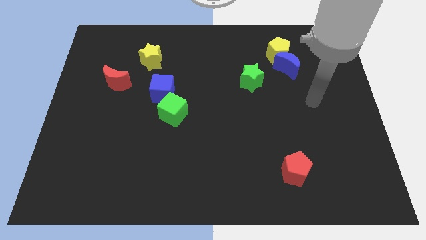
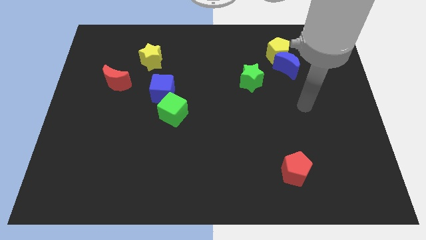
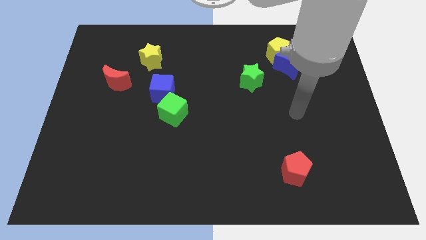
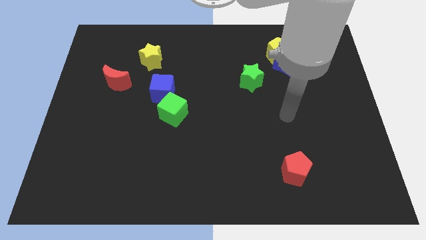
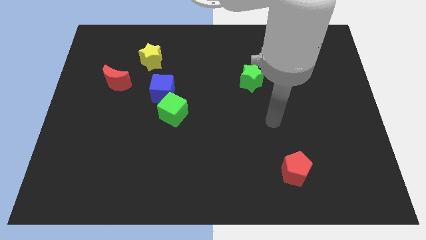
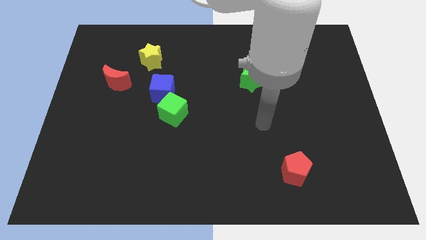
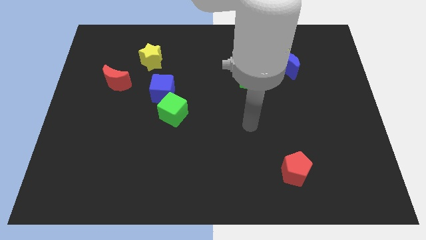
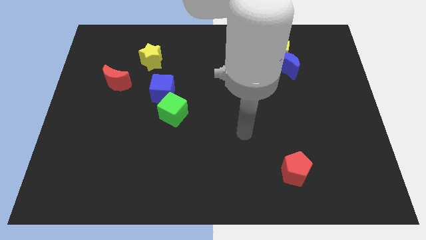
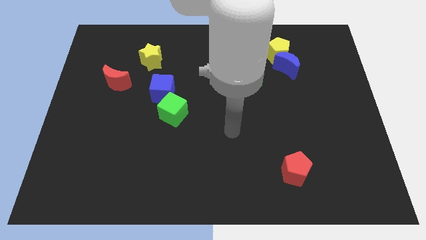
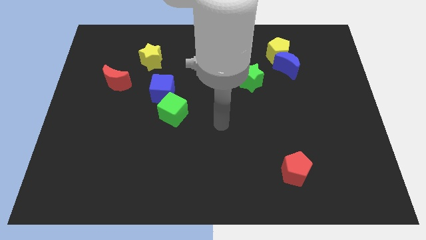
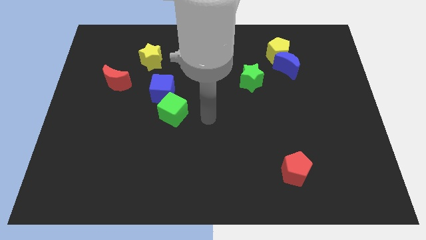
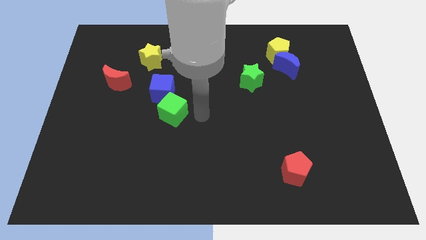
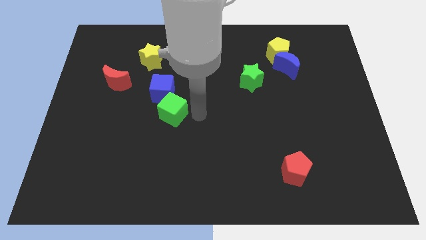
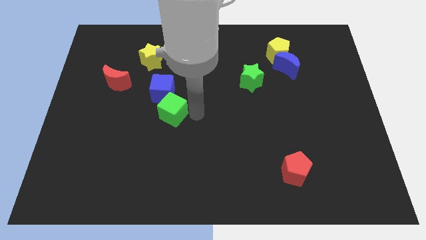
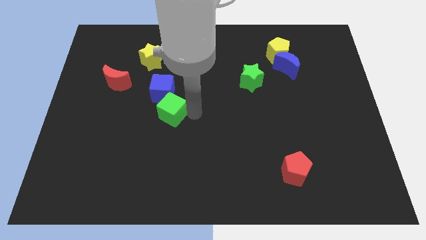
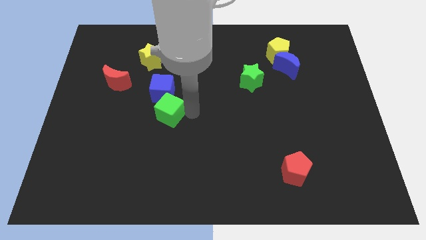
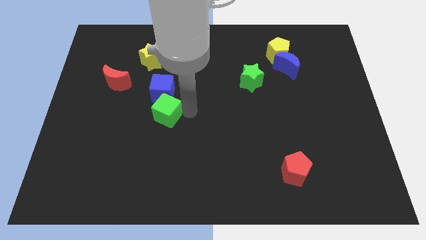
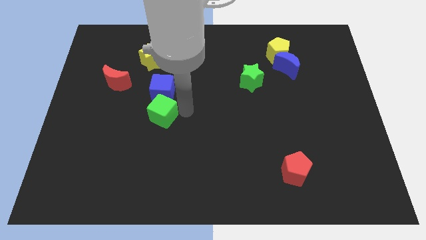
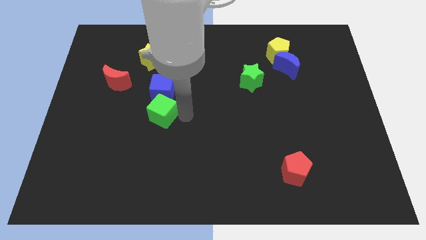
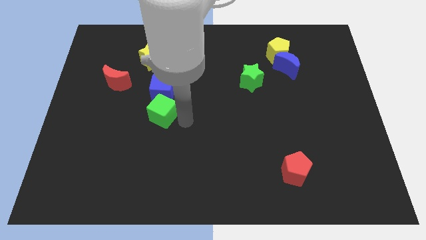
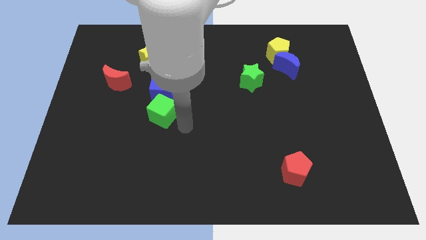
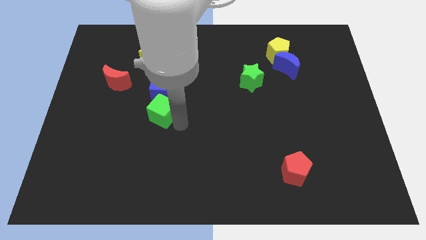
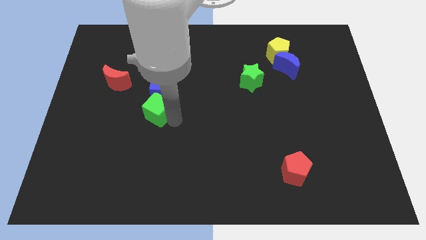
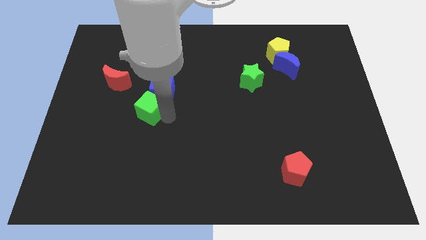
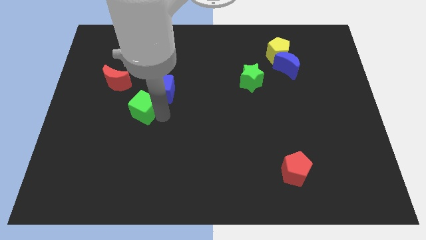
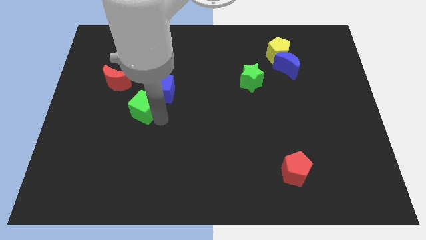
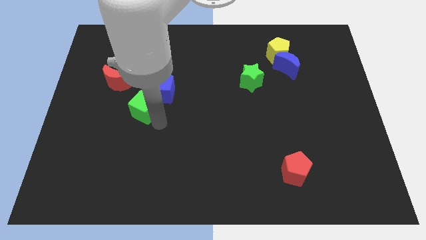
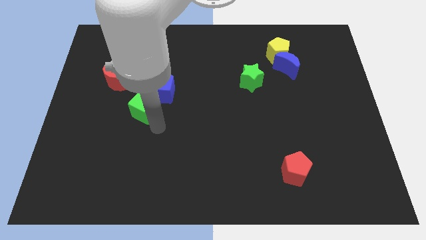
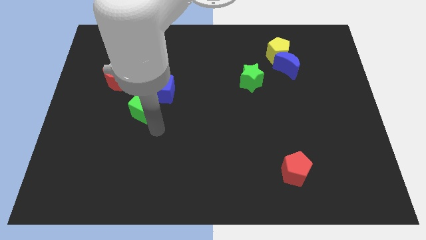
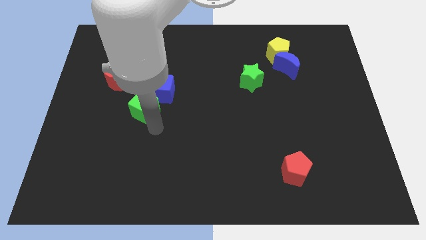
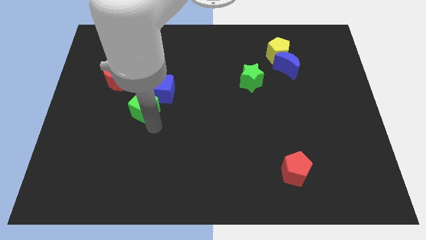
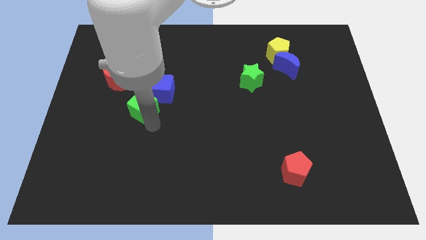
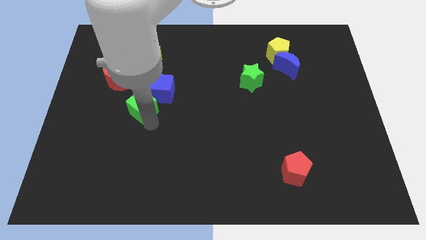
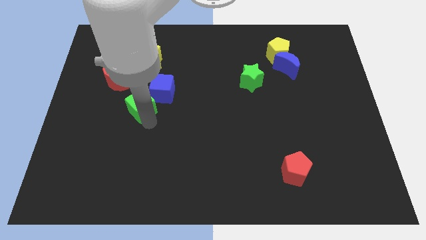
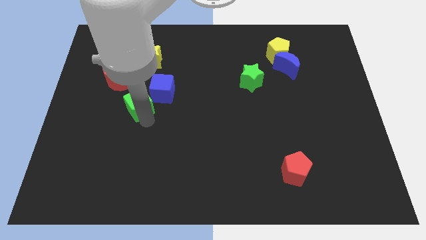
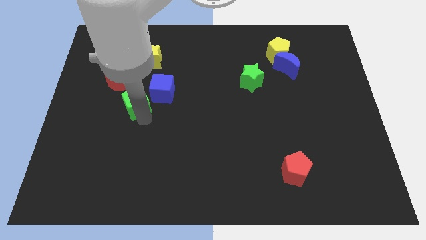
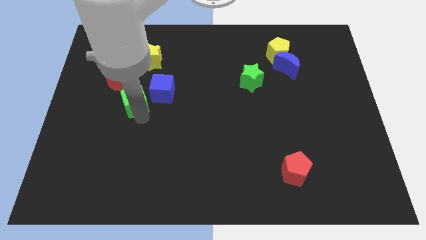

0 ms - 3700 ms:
push the green cube upwards and then left a bit

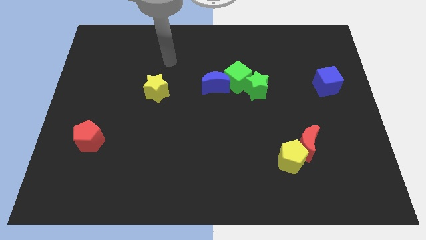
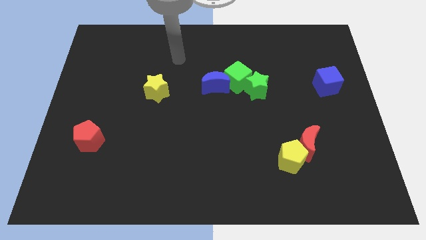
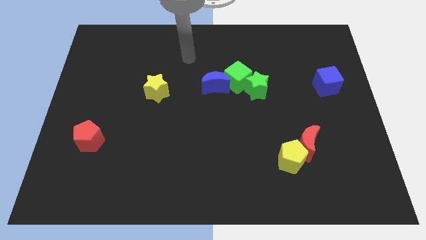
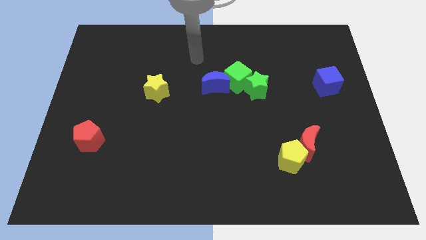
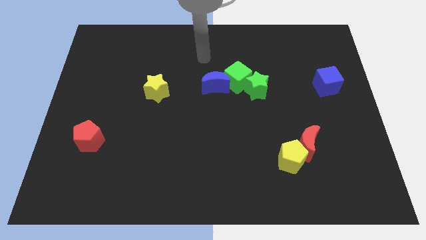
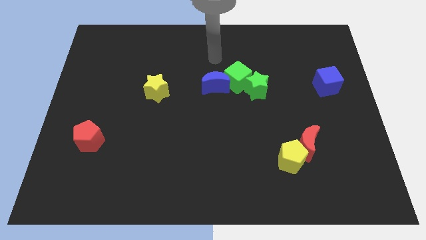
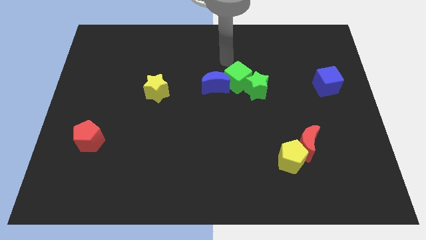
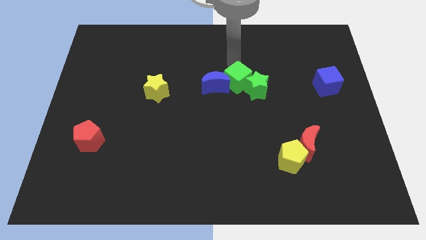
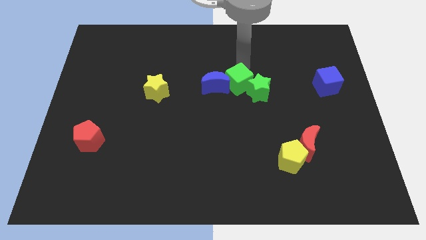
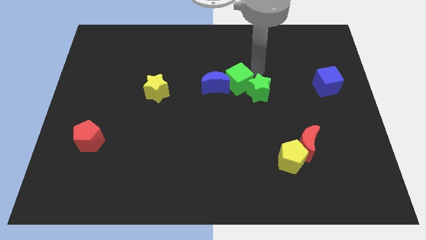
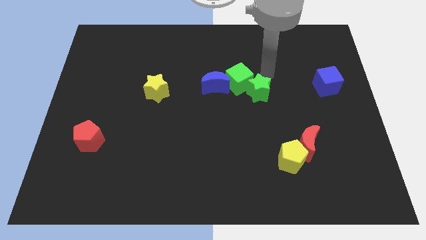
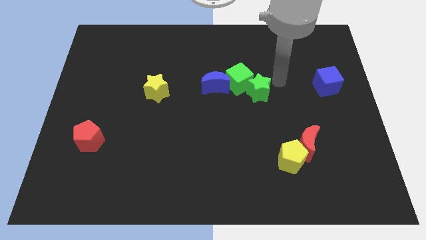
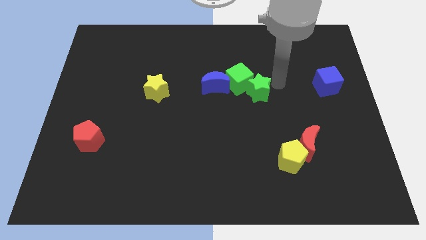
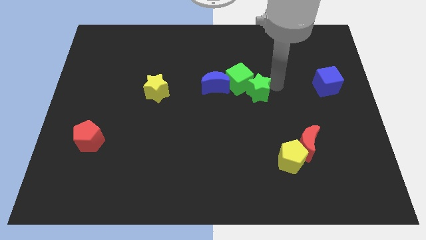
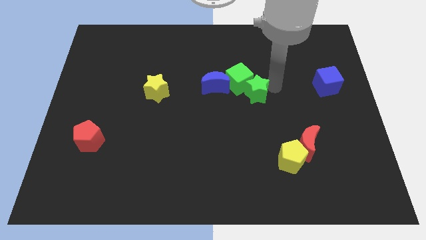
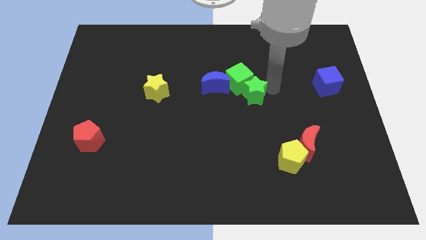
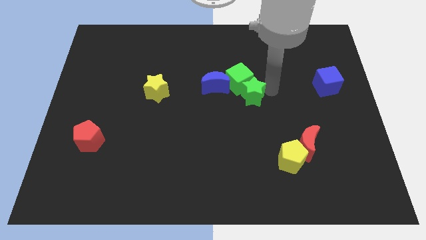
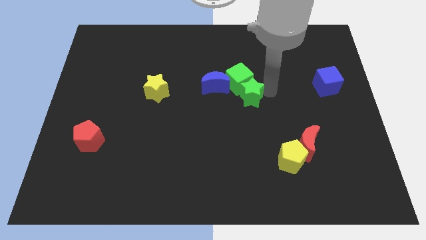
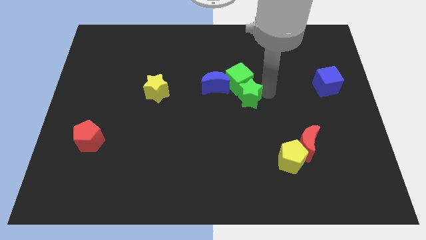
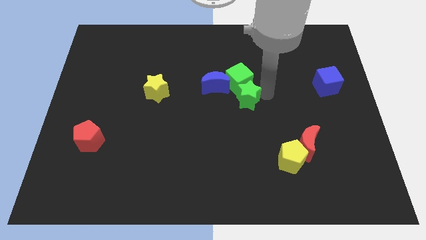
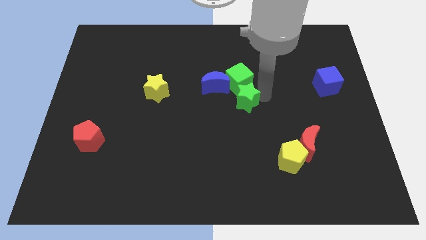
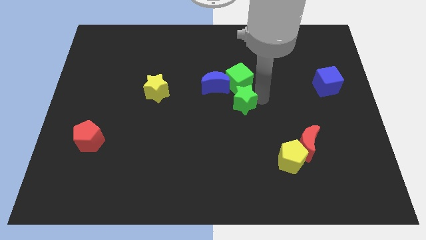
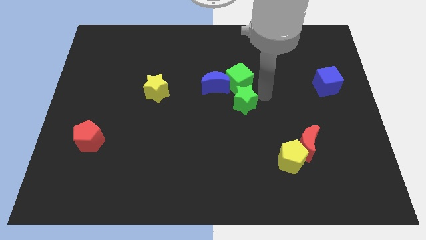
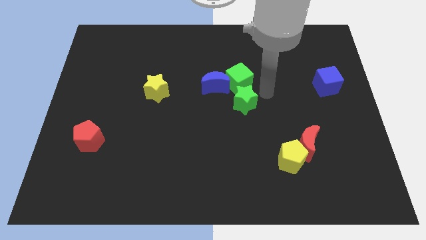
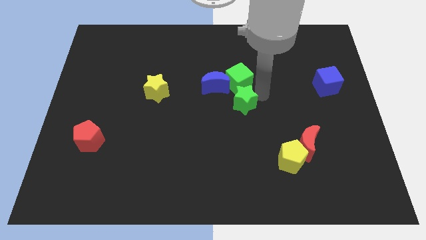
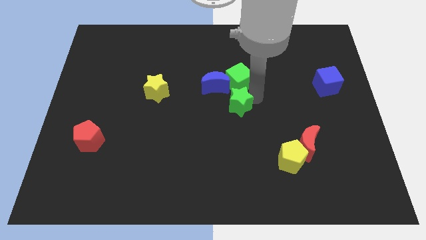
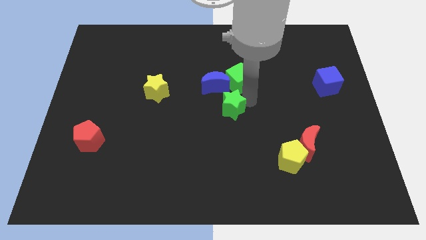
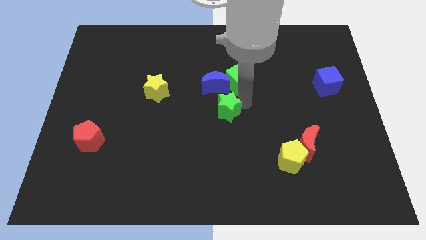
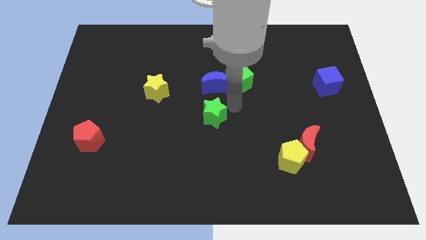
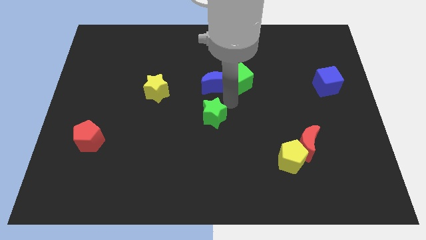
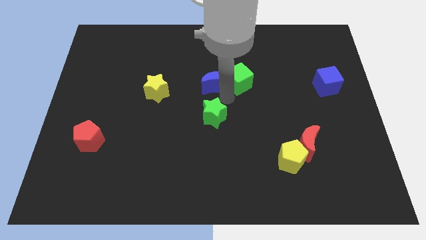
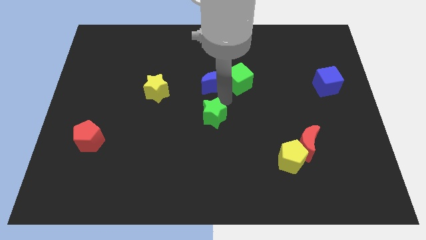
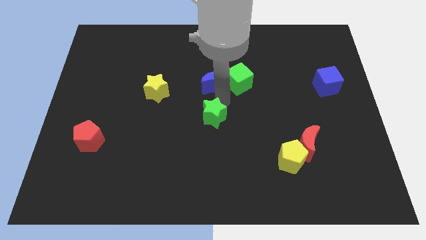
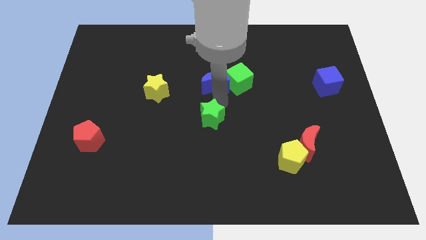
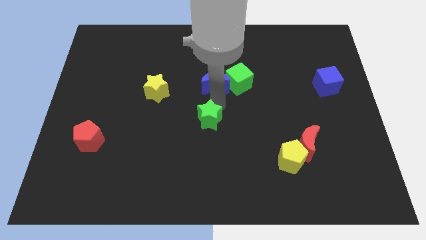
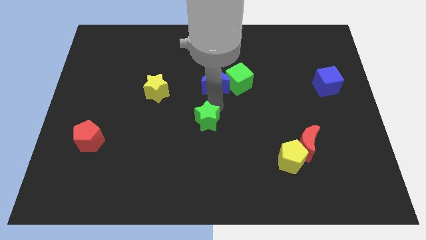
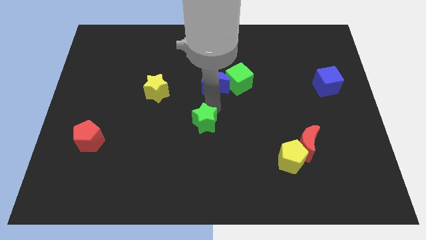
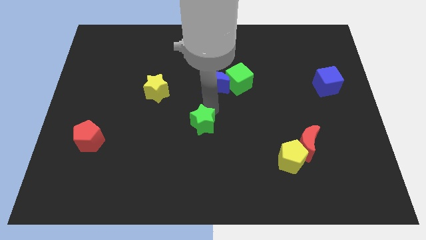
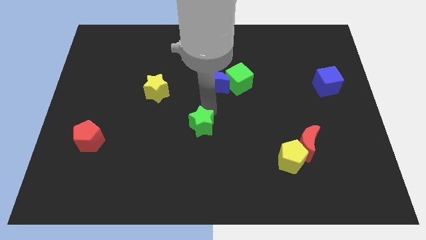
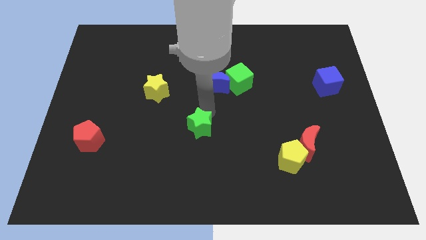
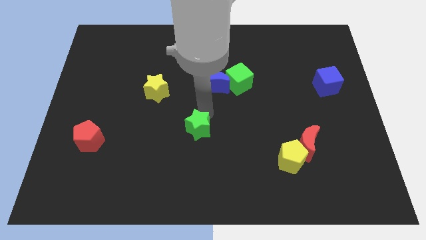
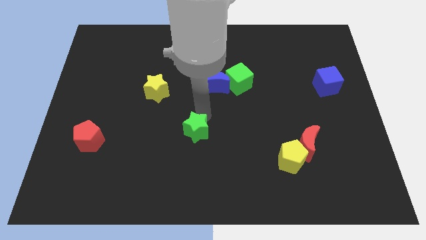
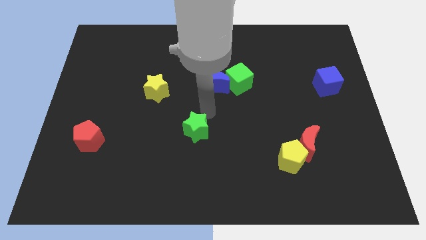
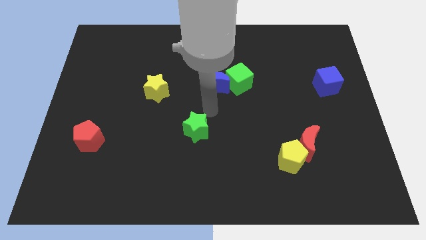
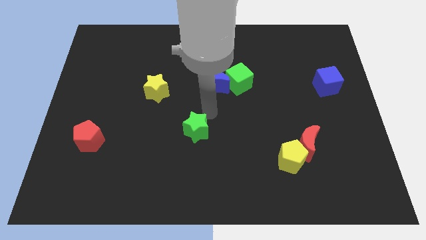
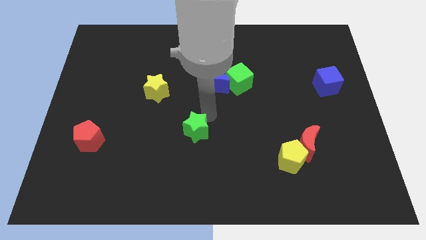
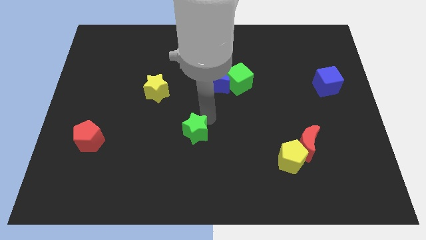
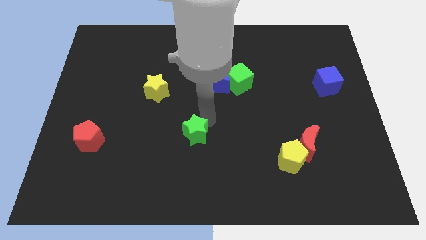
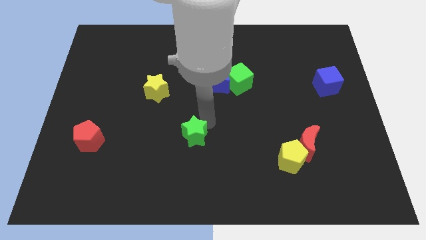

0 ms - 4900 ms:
move the green star downwards and left diagonally
